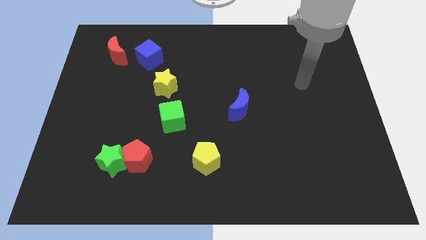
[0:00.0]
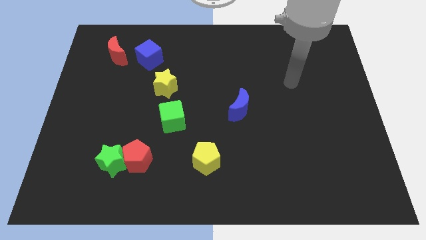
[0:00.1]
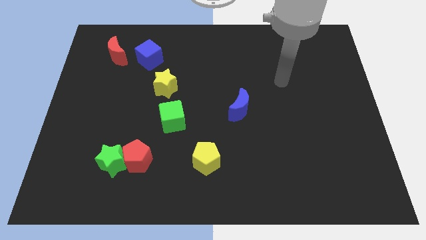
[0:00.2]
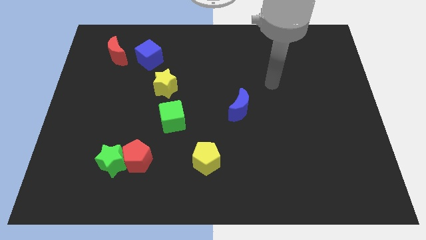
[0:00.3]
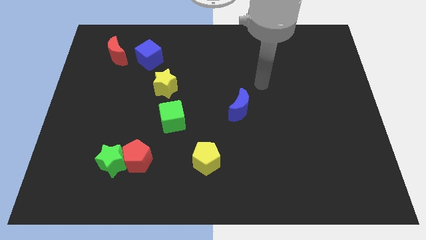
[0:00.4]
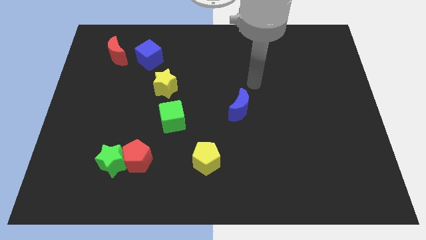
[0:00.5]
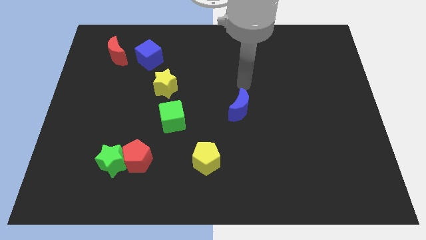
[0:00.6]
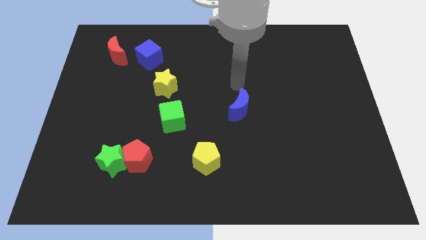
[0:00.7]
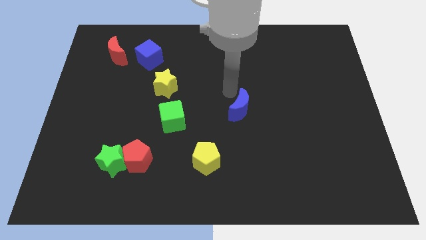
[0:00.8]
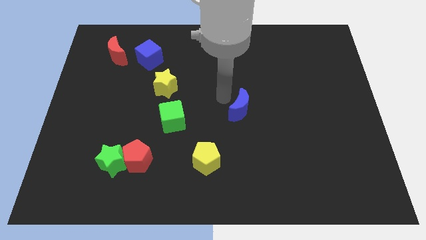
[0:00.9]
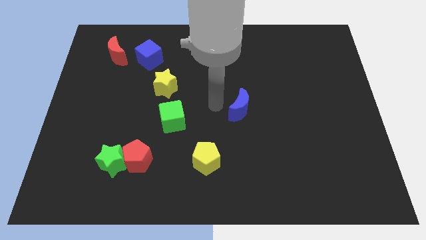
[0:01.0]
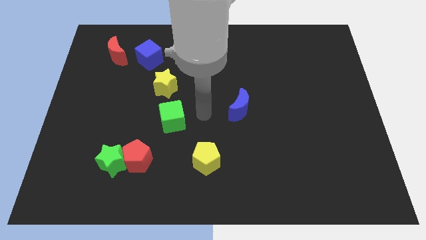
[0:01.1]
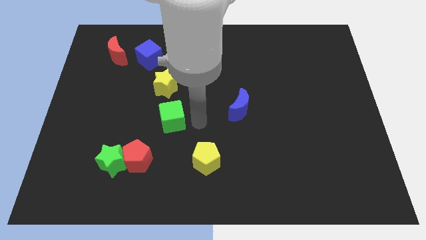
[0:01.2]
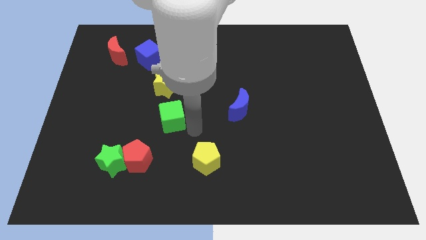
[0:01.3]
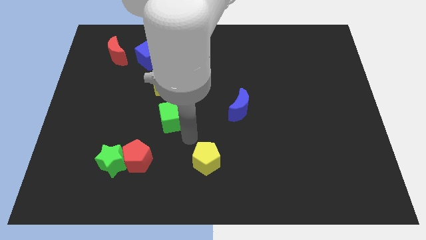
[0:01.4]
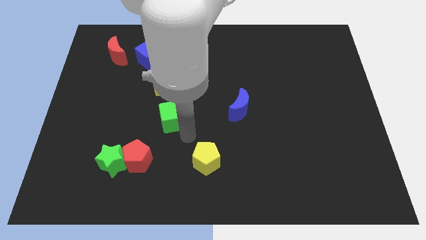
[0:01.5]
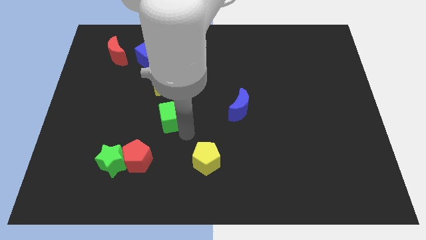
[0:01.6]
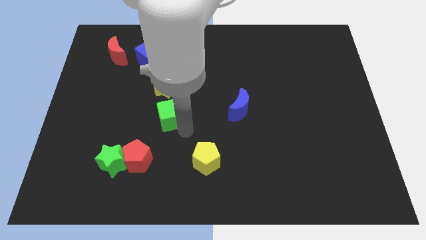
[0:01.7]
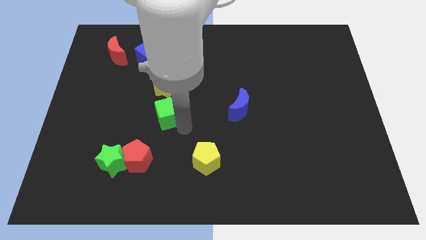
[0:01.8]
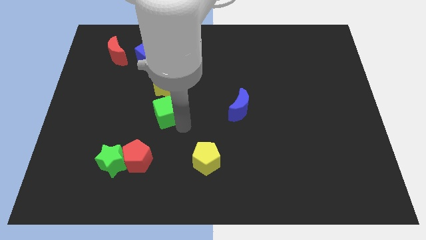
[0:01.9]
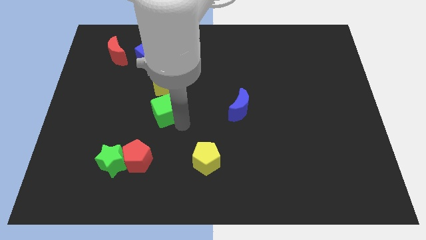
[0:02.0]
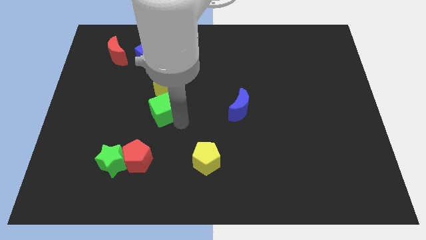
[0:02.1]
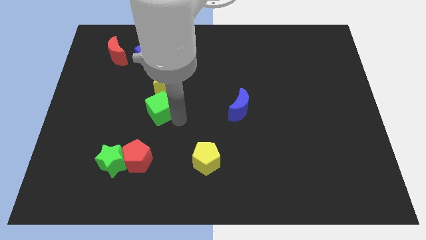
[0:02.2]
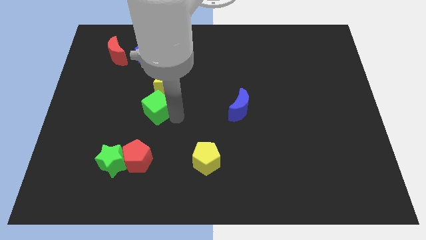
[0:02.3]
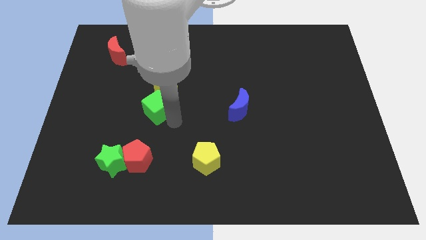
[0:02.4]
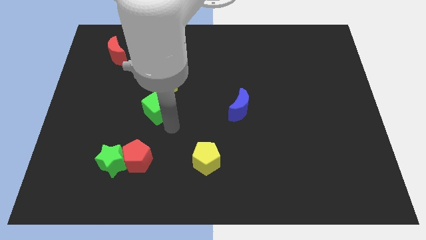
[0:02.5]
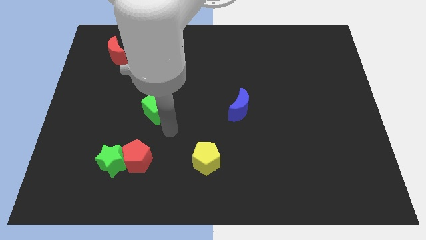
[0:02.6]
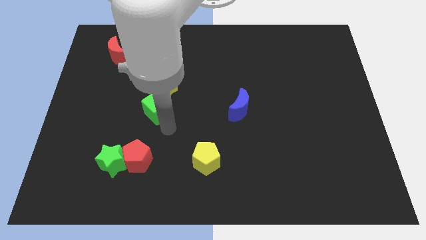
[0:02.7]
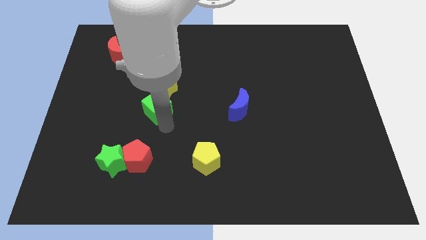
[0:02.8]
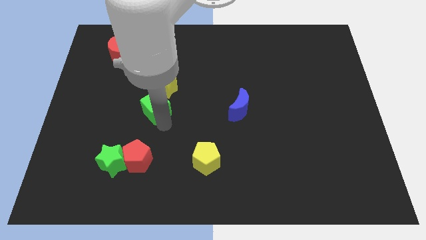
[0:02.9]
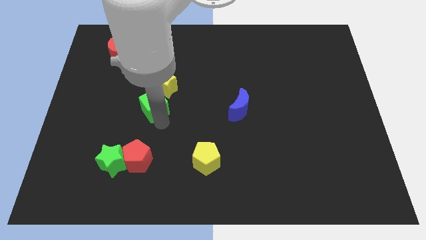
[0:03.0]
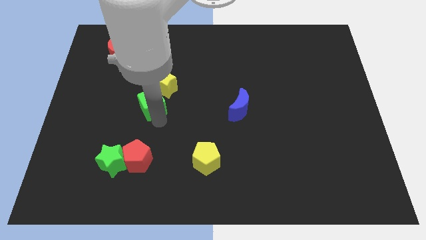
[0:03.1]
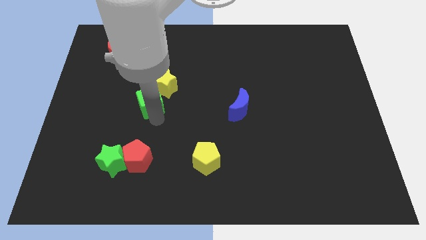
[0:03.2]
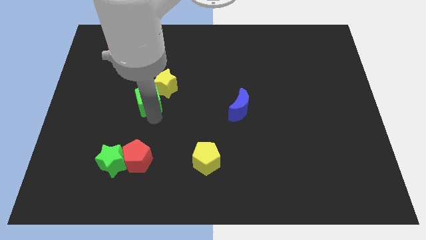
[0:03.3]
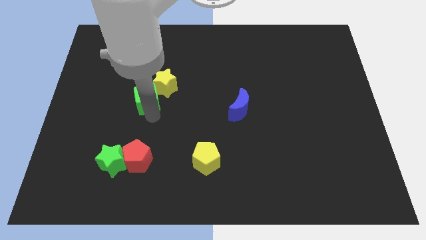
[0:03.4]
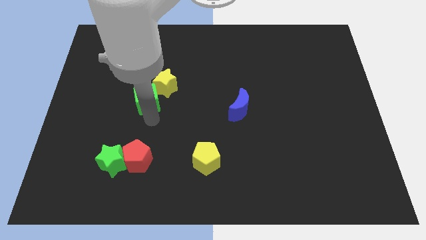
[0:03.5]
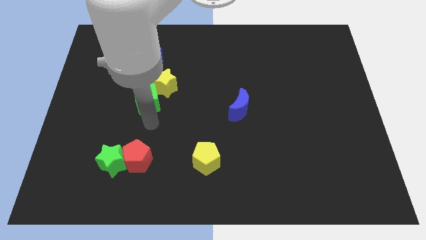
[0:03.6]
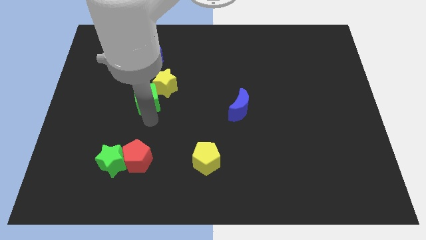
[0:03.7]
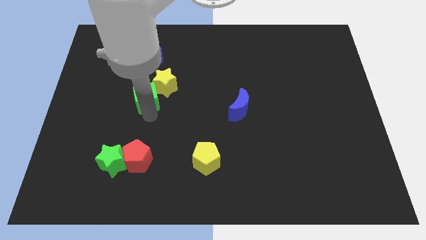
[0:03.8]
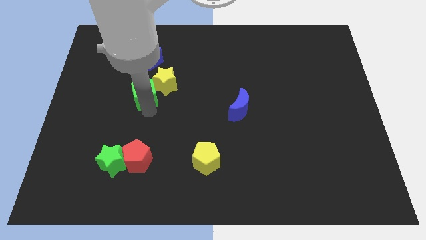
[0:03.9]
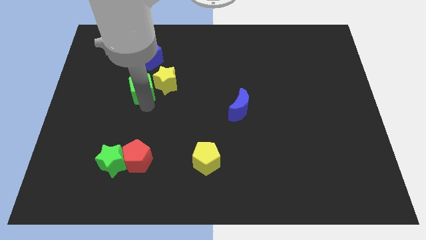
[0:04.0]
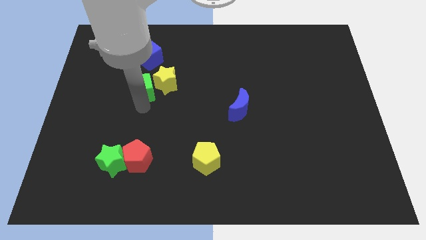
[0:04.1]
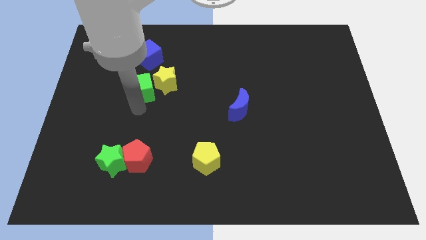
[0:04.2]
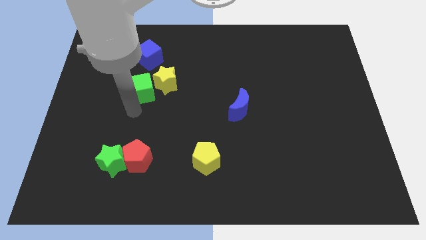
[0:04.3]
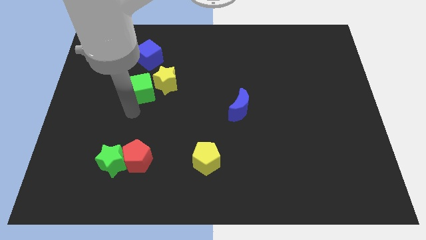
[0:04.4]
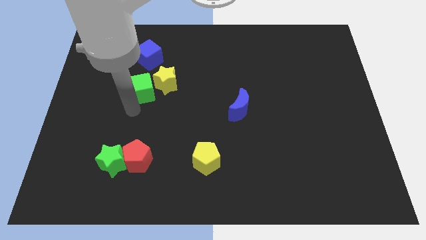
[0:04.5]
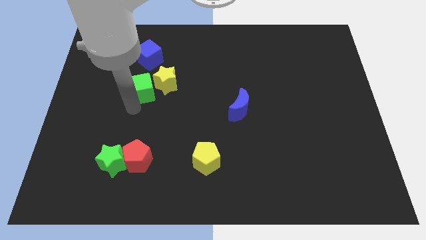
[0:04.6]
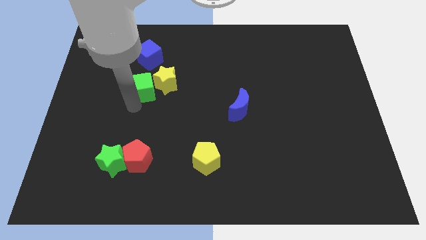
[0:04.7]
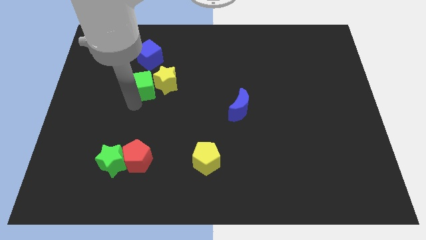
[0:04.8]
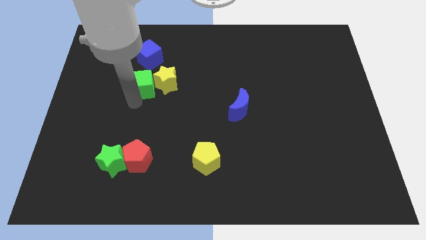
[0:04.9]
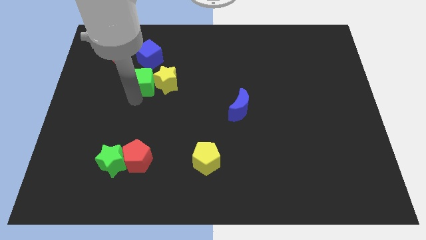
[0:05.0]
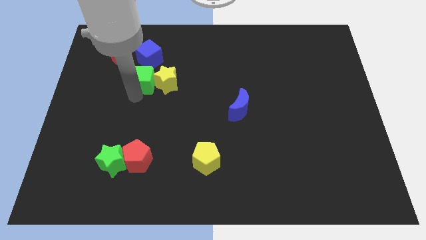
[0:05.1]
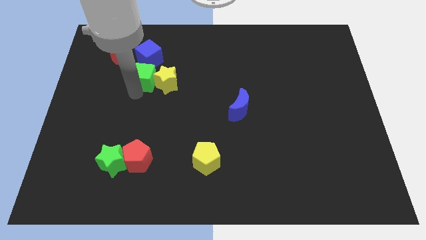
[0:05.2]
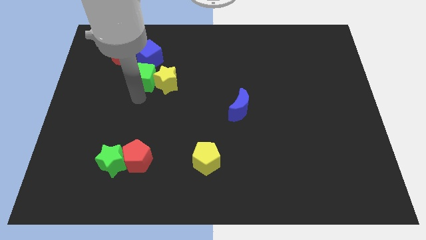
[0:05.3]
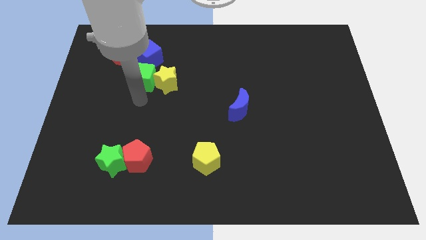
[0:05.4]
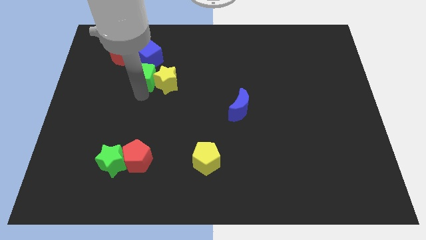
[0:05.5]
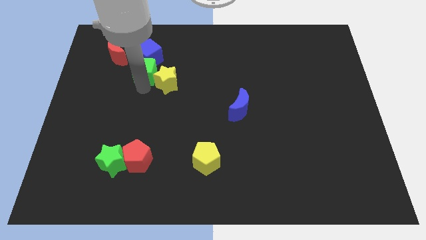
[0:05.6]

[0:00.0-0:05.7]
slide the green cube next to the blue cube

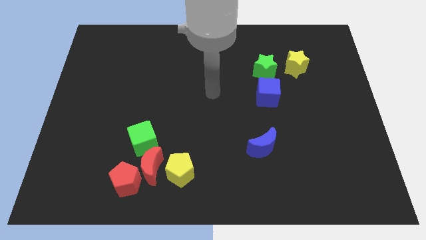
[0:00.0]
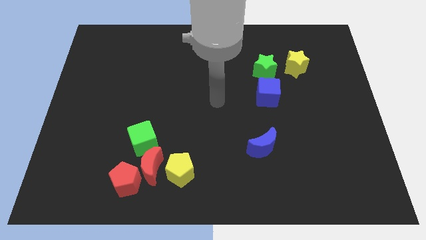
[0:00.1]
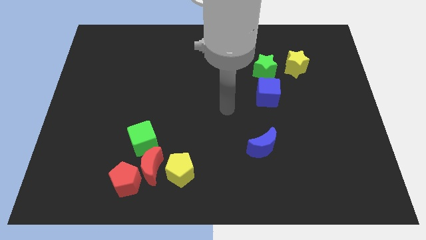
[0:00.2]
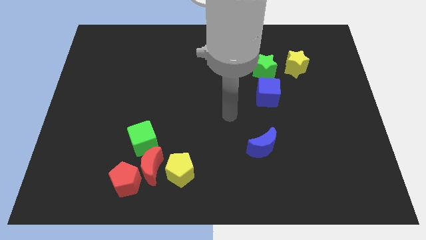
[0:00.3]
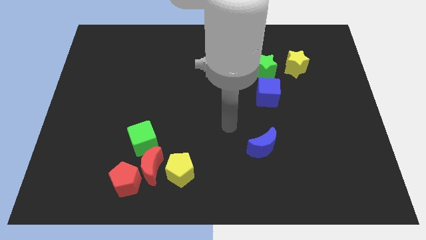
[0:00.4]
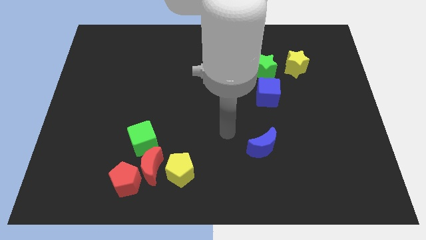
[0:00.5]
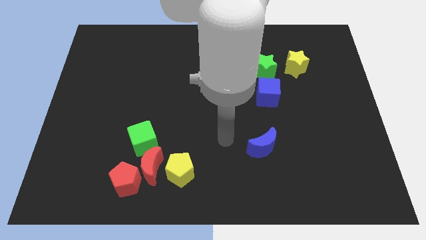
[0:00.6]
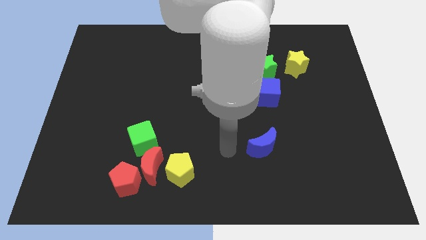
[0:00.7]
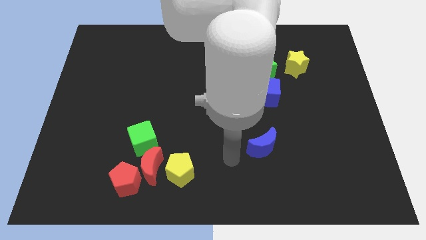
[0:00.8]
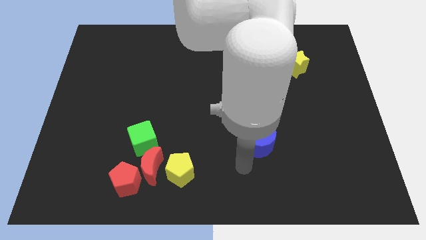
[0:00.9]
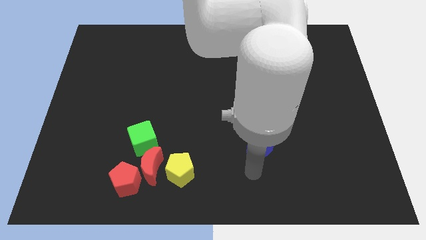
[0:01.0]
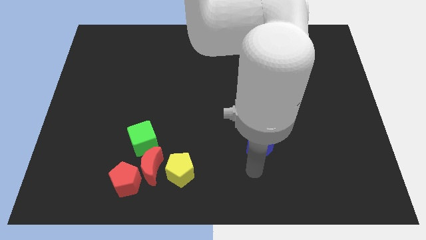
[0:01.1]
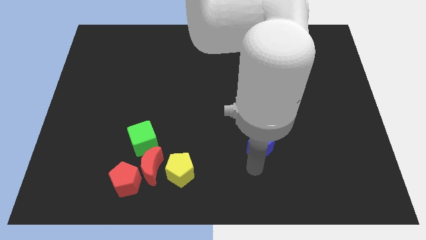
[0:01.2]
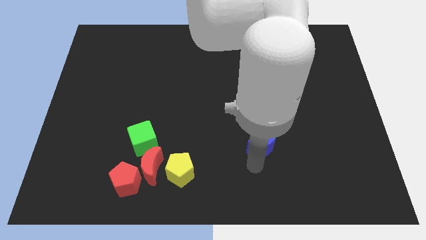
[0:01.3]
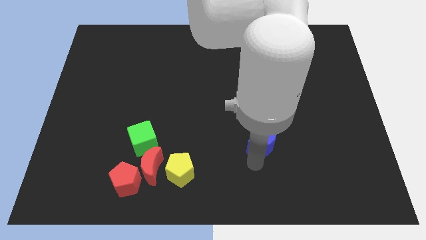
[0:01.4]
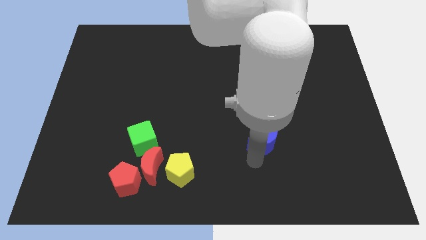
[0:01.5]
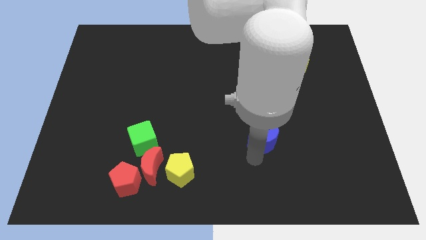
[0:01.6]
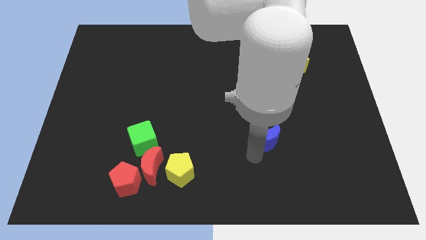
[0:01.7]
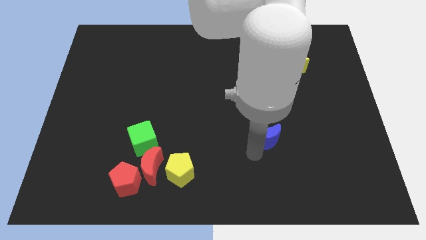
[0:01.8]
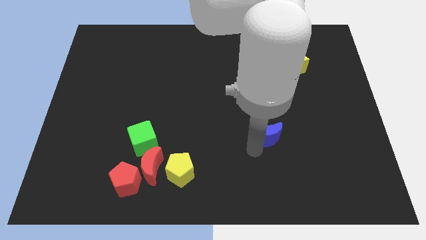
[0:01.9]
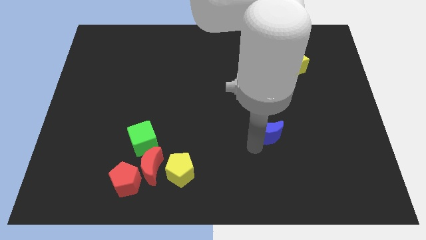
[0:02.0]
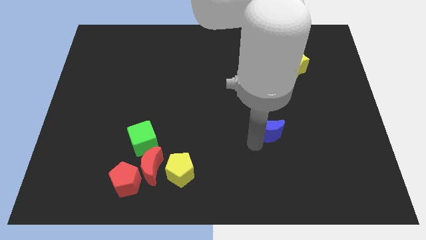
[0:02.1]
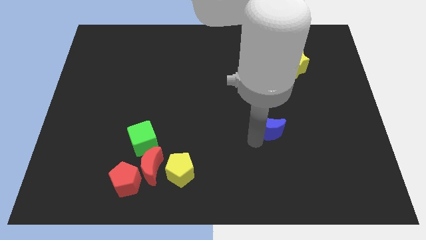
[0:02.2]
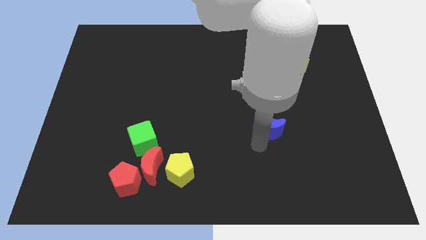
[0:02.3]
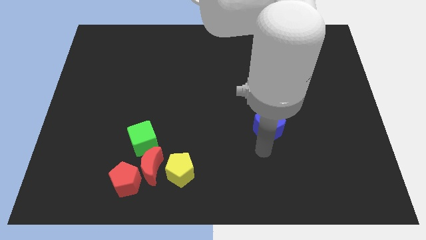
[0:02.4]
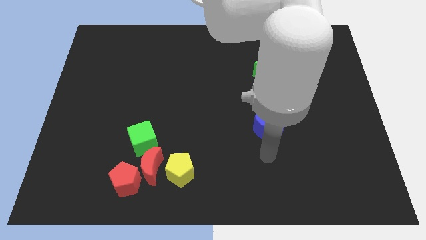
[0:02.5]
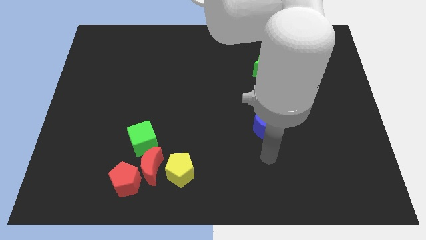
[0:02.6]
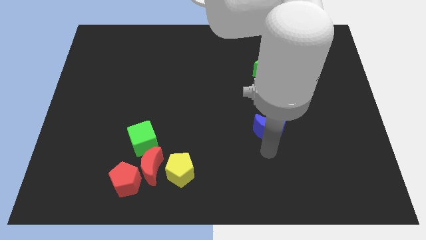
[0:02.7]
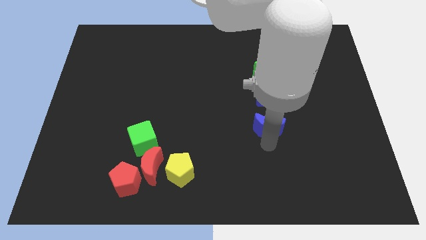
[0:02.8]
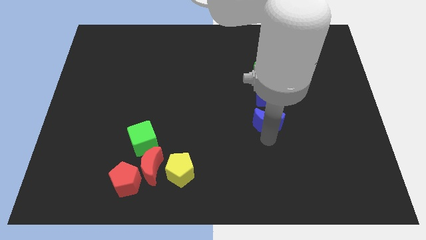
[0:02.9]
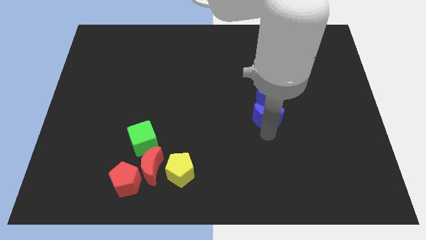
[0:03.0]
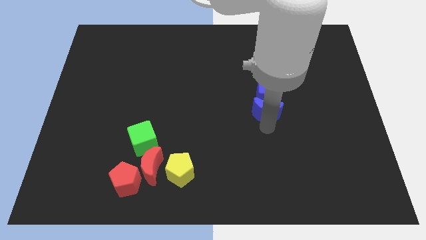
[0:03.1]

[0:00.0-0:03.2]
slide the blue moon close to the blue cube
